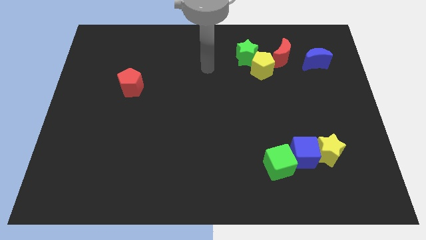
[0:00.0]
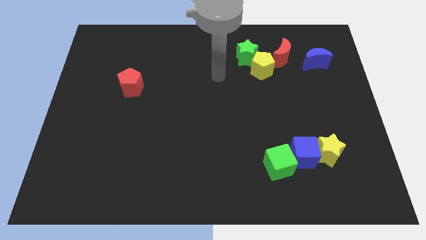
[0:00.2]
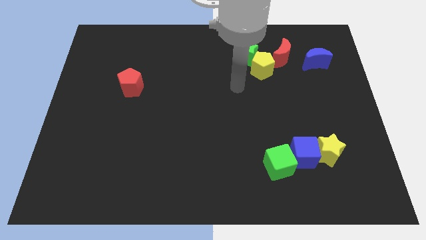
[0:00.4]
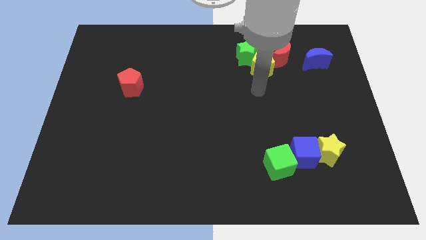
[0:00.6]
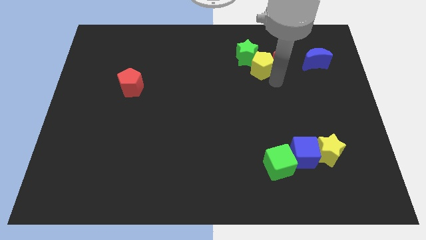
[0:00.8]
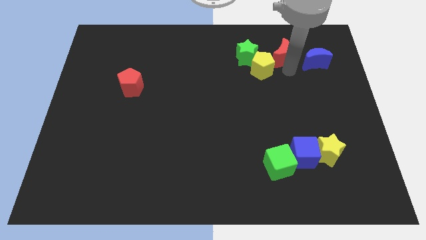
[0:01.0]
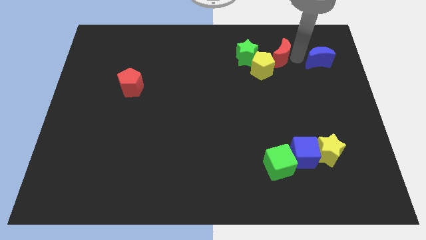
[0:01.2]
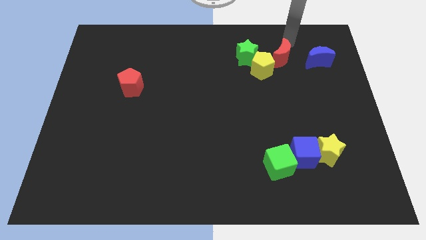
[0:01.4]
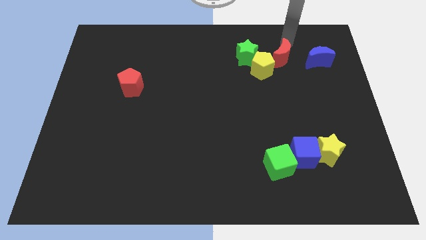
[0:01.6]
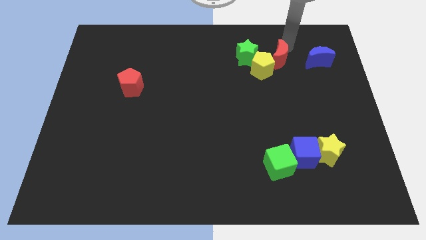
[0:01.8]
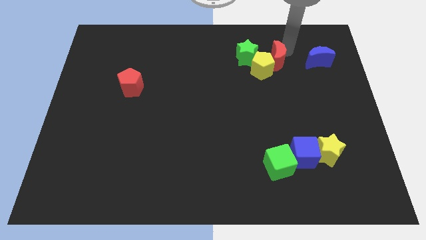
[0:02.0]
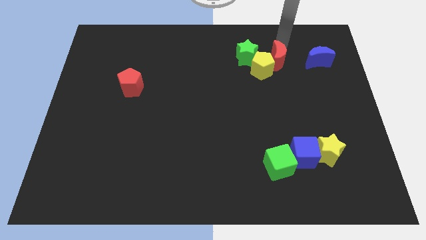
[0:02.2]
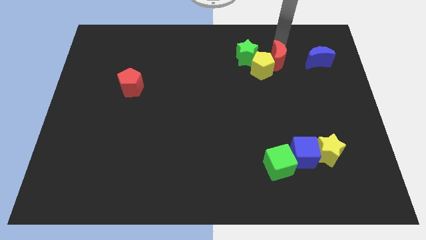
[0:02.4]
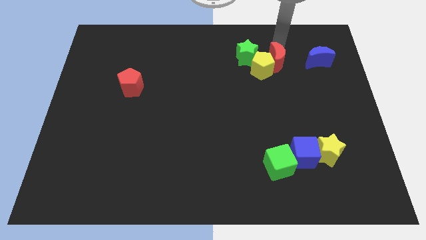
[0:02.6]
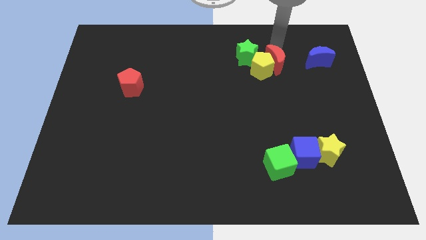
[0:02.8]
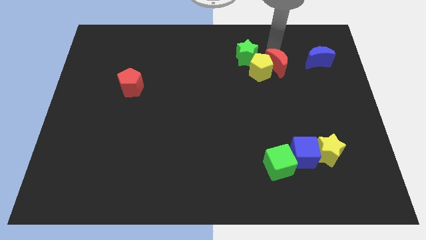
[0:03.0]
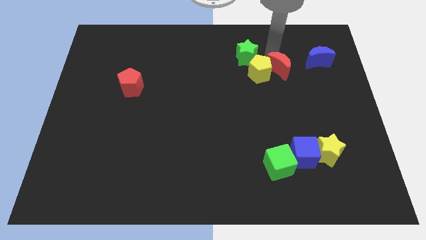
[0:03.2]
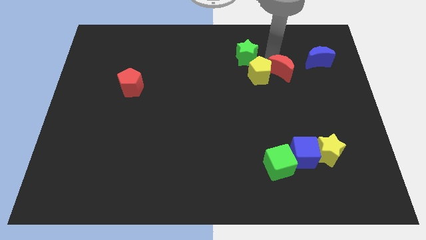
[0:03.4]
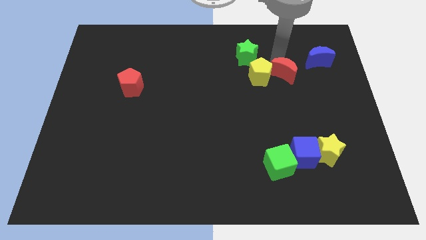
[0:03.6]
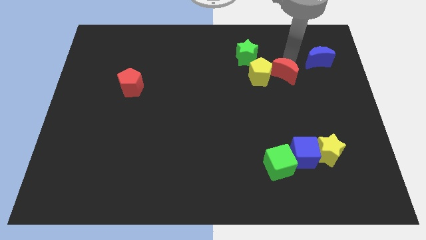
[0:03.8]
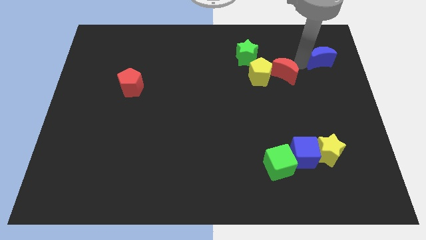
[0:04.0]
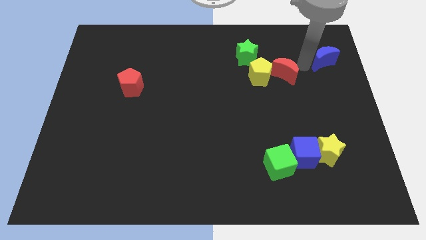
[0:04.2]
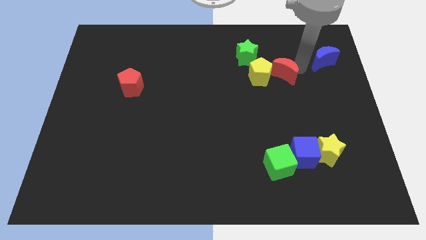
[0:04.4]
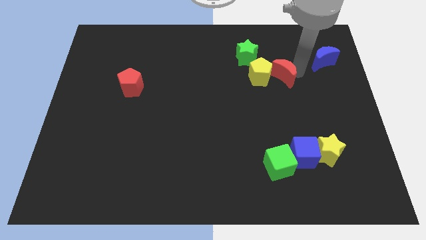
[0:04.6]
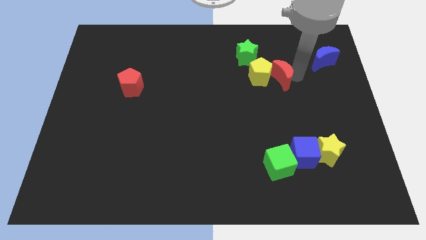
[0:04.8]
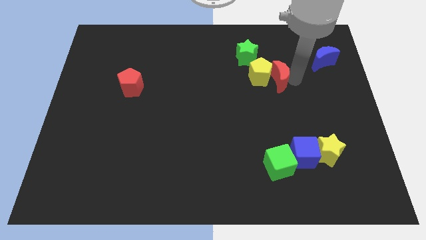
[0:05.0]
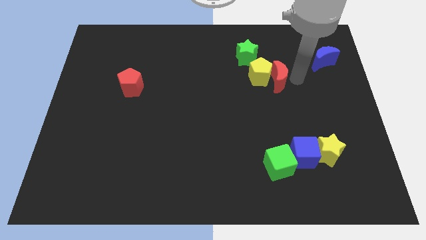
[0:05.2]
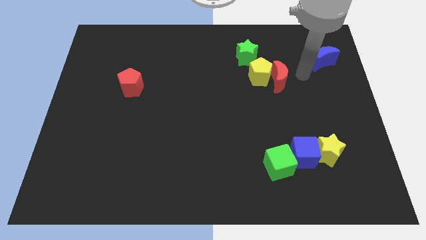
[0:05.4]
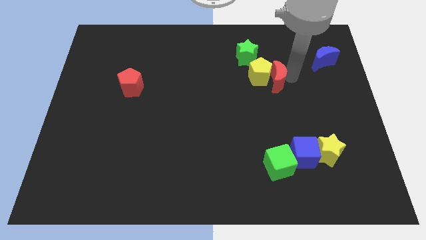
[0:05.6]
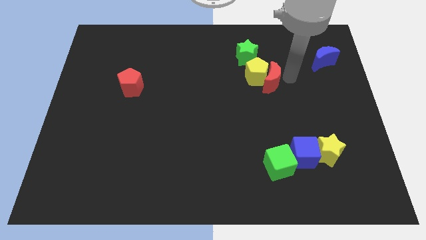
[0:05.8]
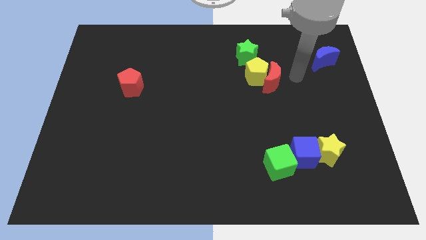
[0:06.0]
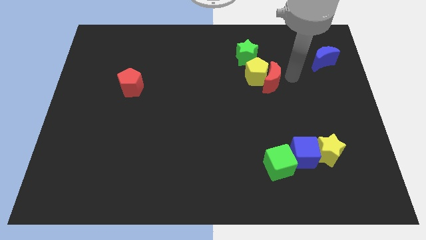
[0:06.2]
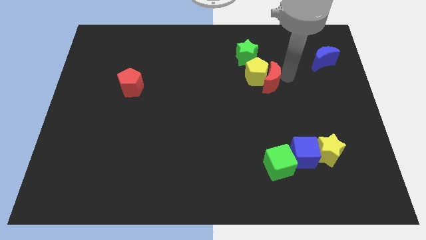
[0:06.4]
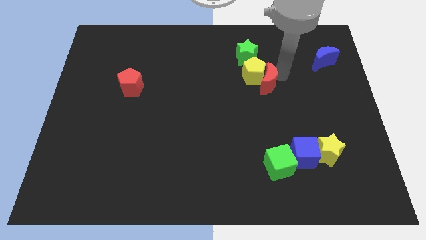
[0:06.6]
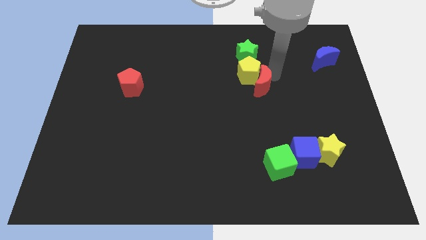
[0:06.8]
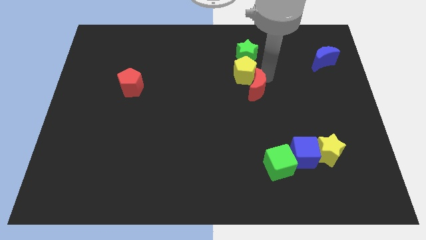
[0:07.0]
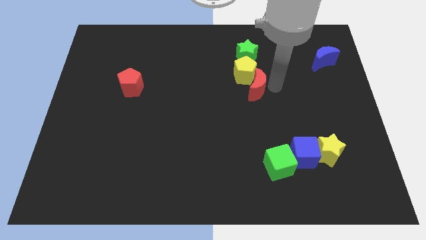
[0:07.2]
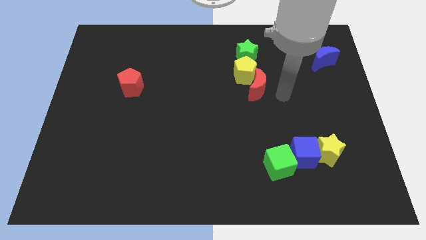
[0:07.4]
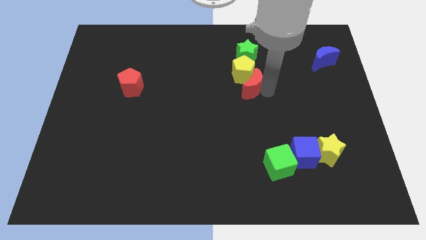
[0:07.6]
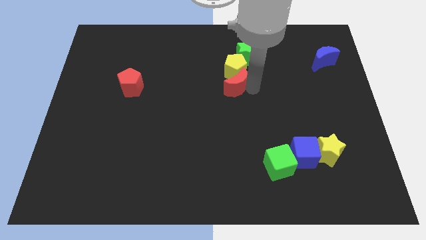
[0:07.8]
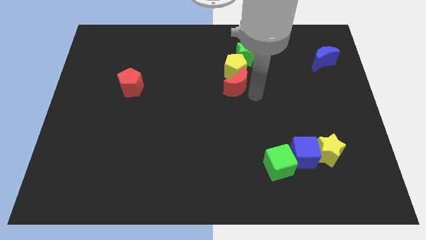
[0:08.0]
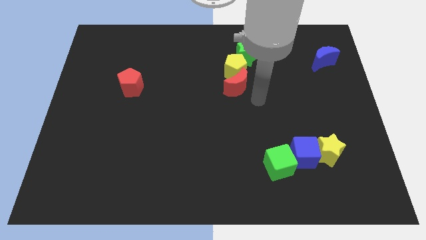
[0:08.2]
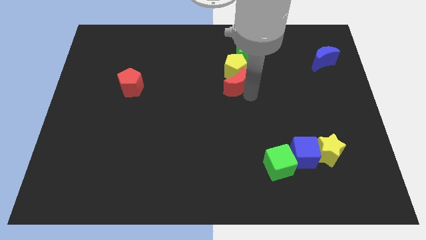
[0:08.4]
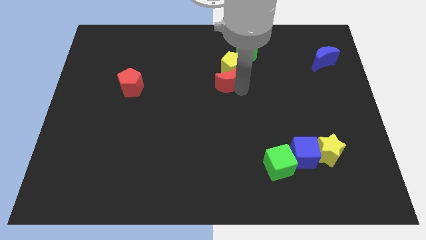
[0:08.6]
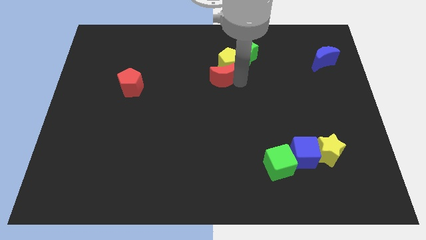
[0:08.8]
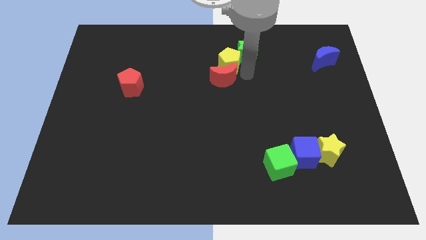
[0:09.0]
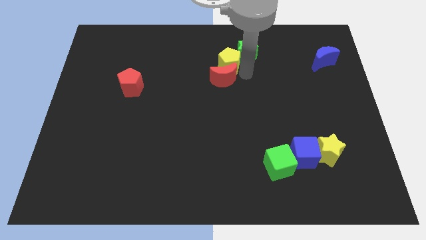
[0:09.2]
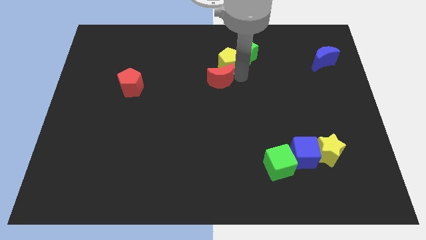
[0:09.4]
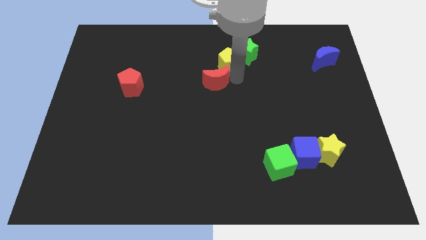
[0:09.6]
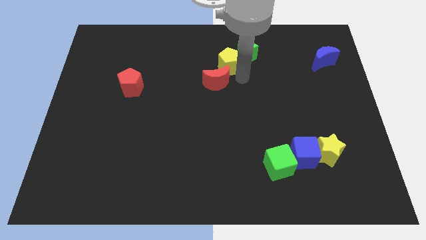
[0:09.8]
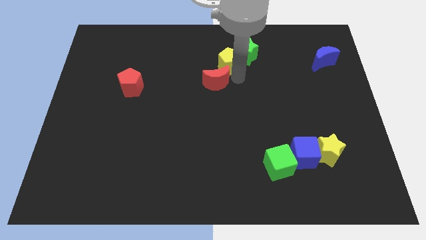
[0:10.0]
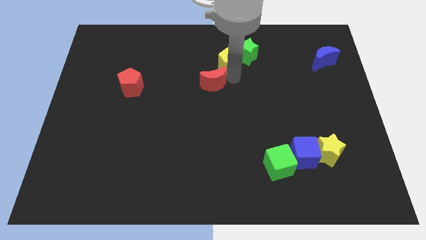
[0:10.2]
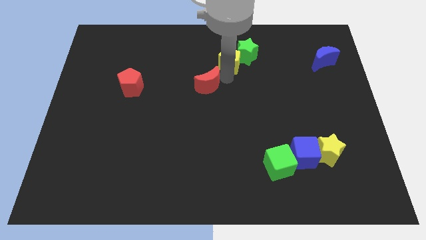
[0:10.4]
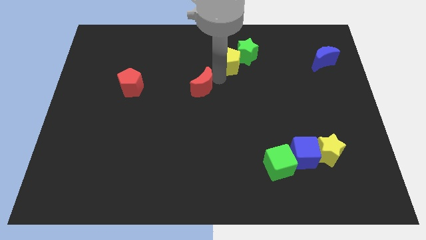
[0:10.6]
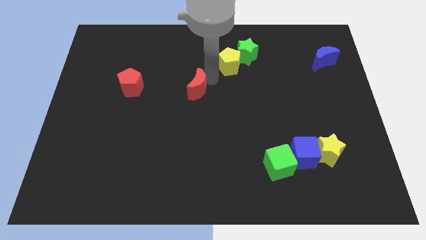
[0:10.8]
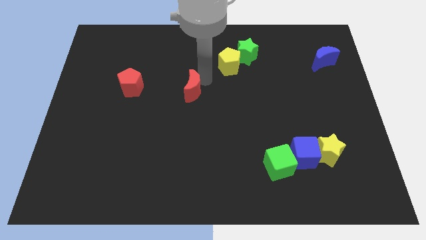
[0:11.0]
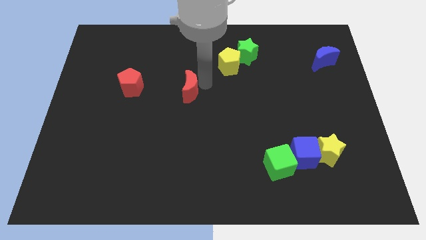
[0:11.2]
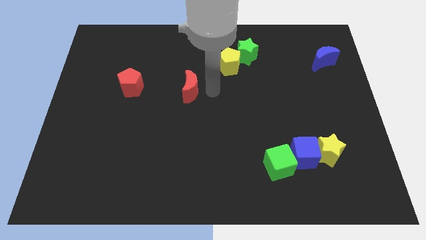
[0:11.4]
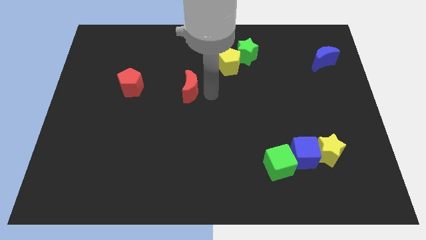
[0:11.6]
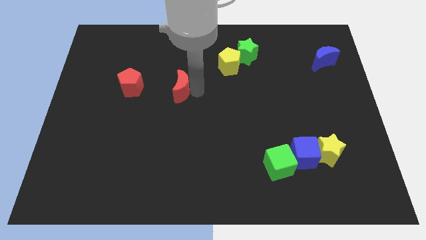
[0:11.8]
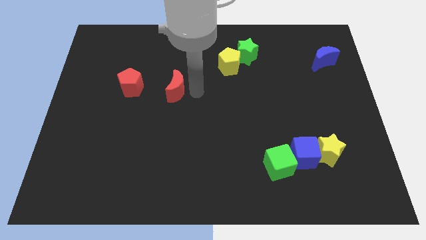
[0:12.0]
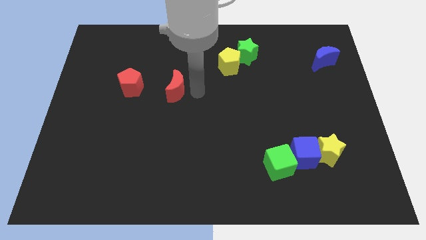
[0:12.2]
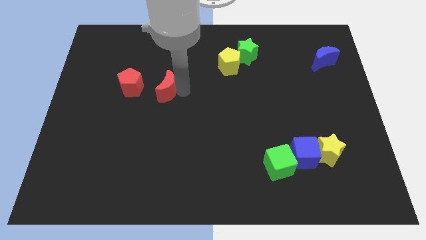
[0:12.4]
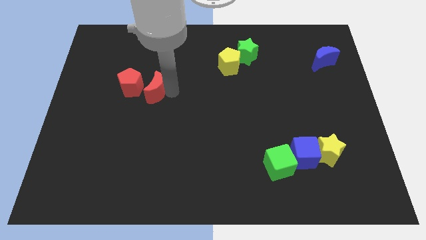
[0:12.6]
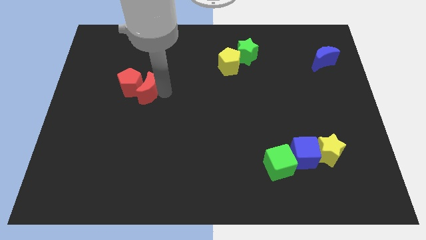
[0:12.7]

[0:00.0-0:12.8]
slide the red moon to the red pentagon
